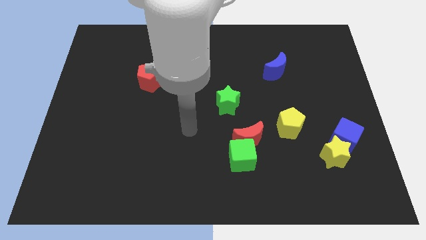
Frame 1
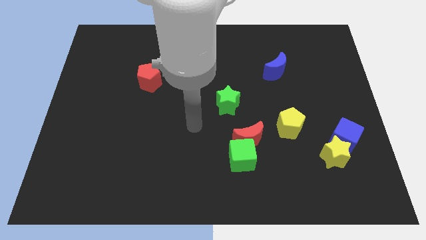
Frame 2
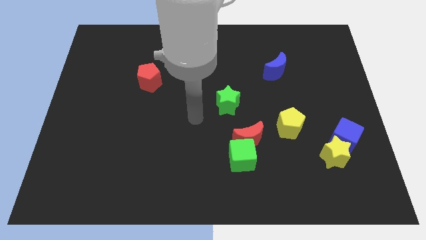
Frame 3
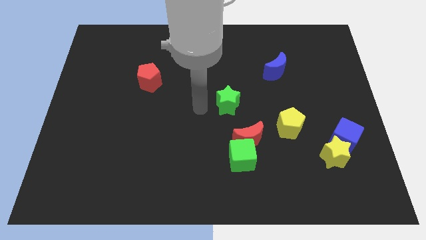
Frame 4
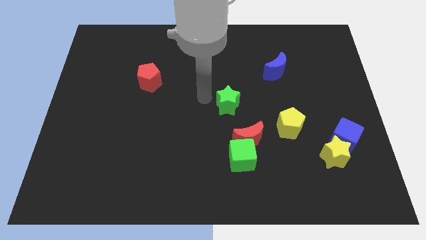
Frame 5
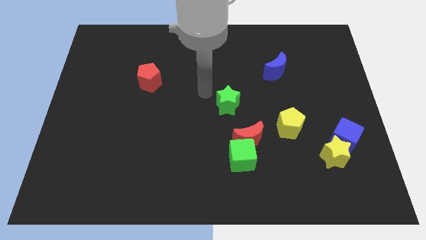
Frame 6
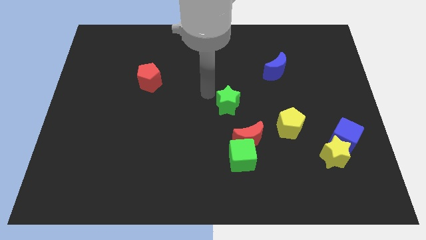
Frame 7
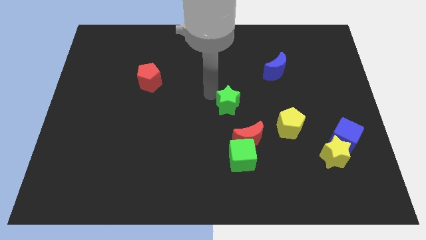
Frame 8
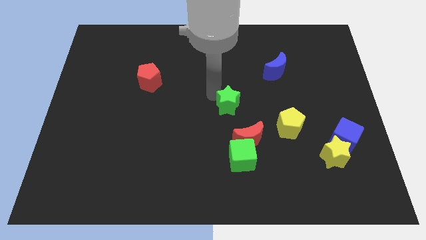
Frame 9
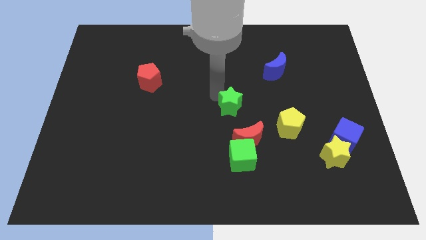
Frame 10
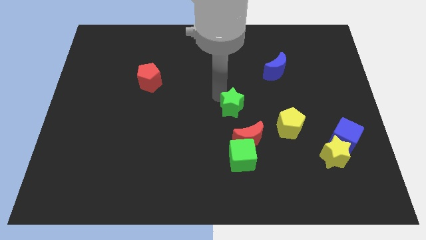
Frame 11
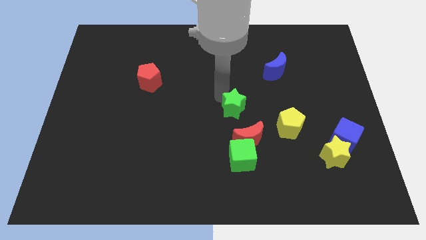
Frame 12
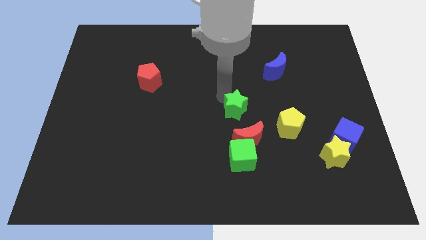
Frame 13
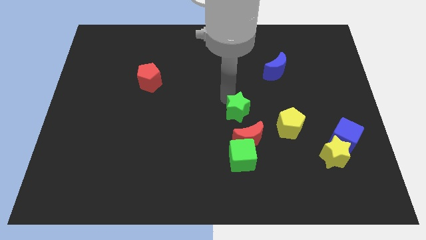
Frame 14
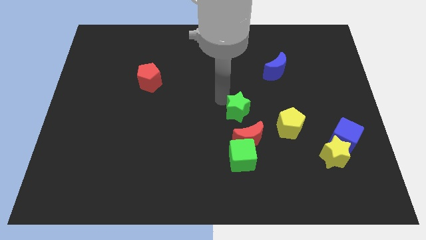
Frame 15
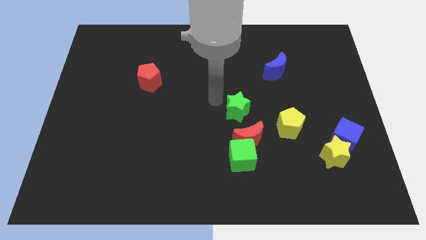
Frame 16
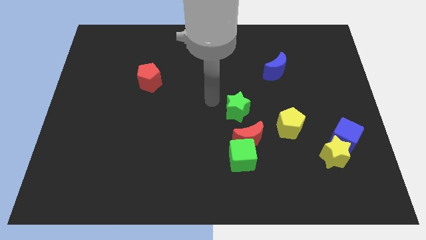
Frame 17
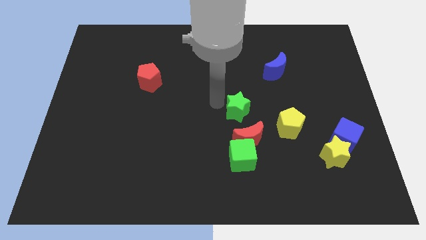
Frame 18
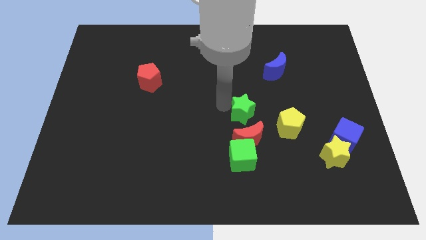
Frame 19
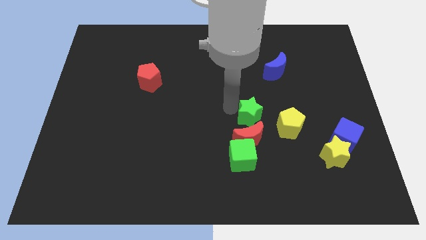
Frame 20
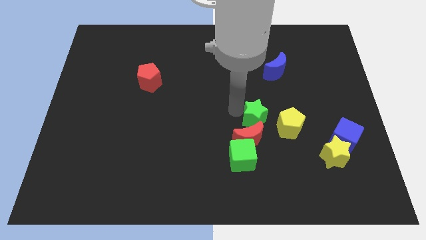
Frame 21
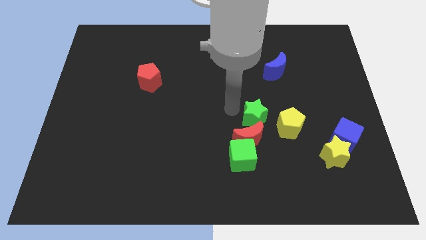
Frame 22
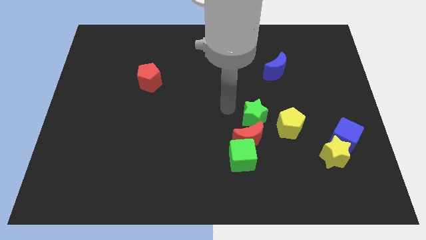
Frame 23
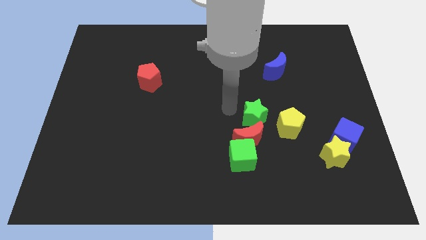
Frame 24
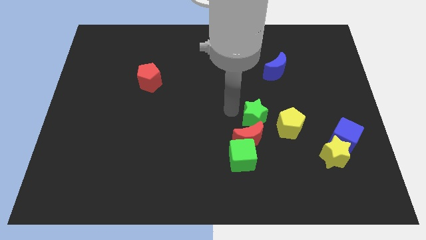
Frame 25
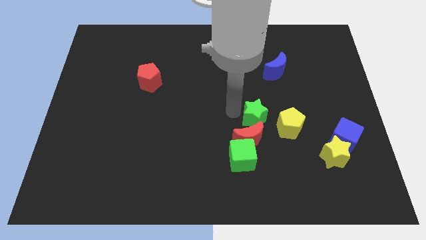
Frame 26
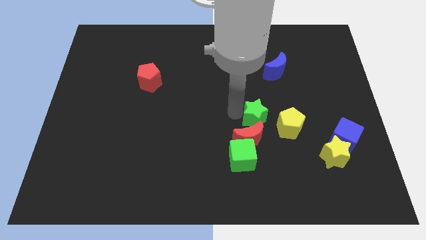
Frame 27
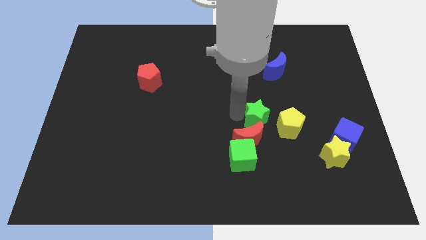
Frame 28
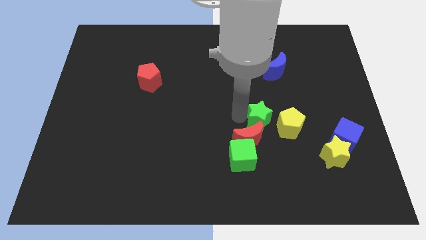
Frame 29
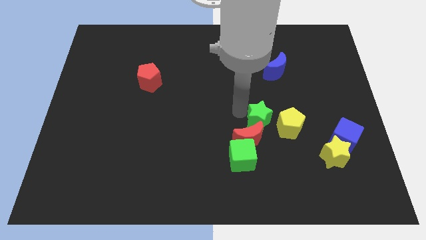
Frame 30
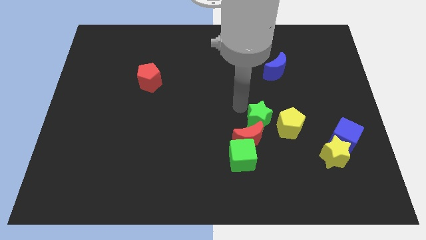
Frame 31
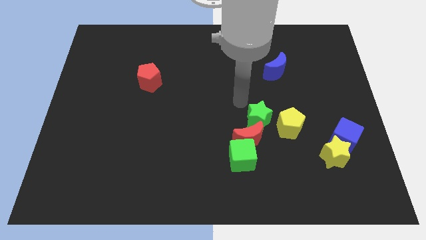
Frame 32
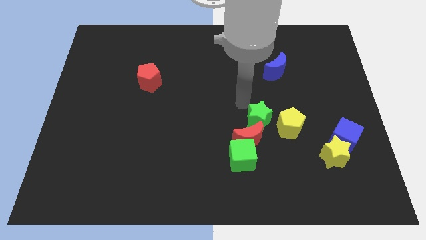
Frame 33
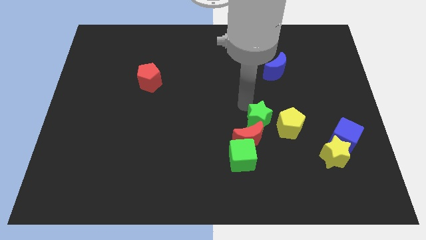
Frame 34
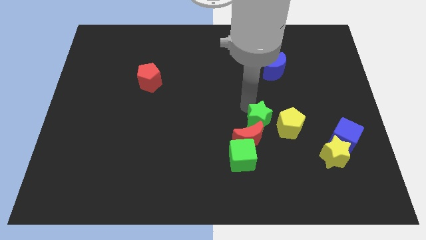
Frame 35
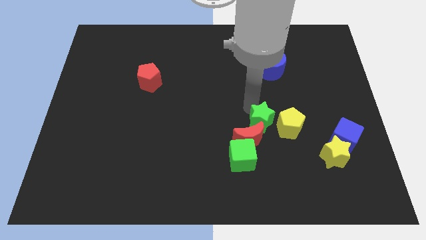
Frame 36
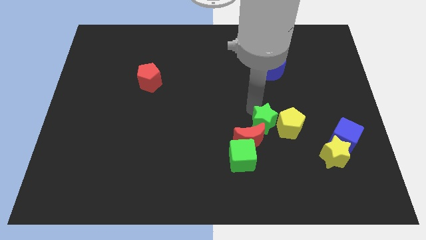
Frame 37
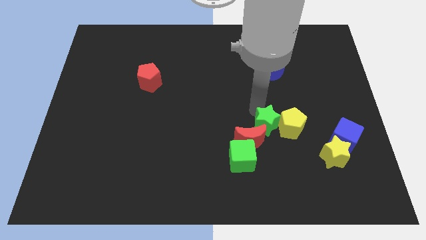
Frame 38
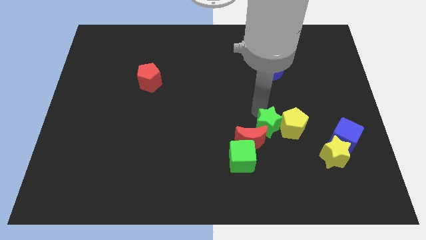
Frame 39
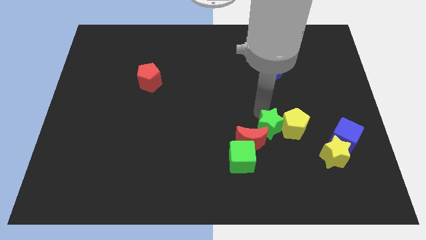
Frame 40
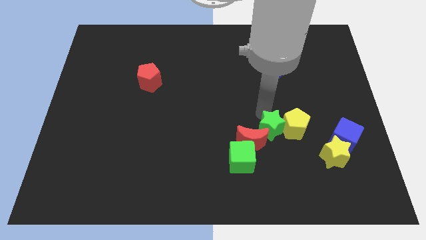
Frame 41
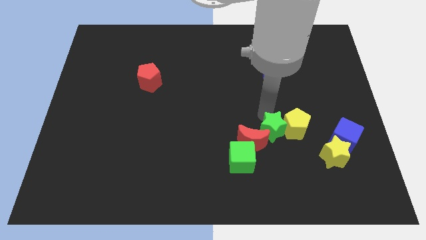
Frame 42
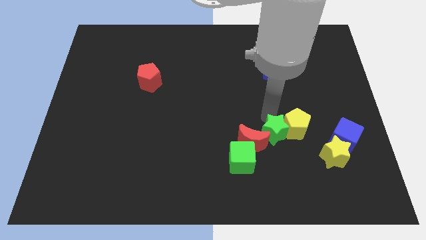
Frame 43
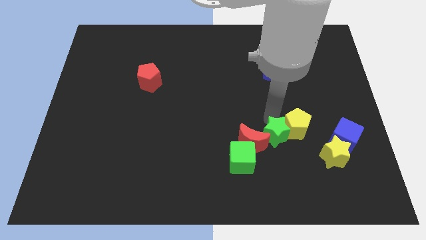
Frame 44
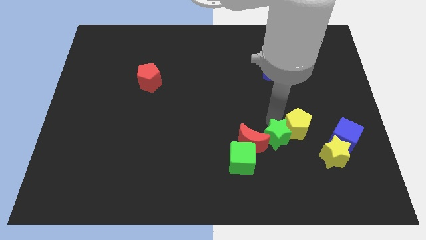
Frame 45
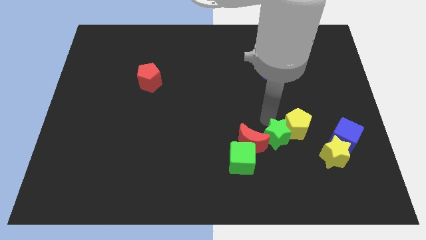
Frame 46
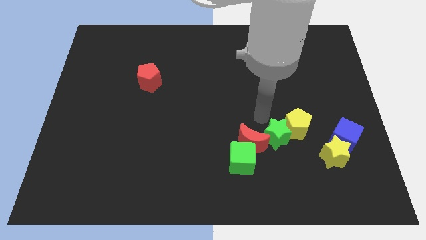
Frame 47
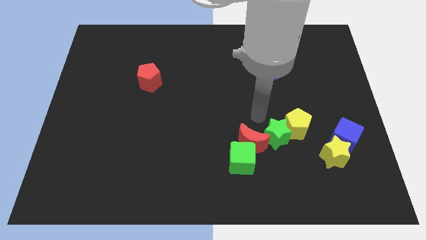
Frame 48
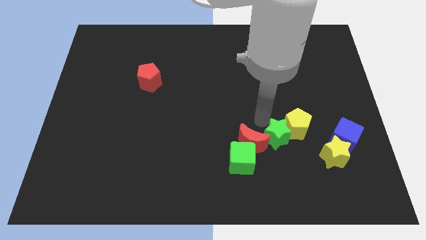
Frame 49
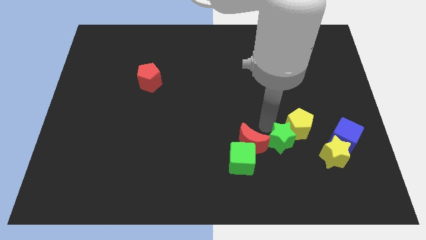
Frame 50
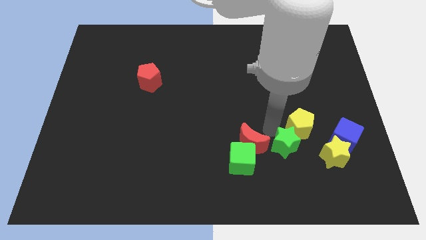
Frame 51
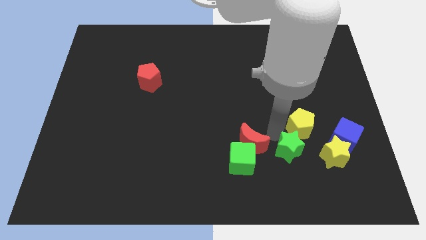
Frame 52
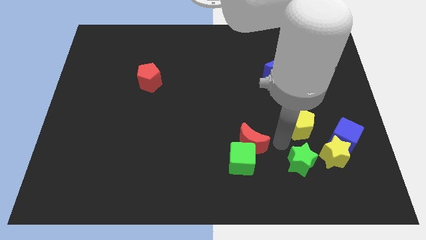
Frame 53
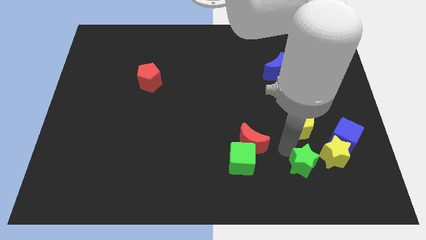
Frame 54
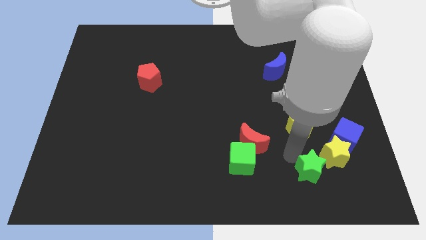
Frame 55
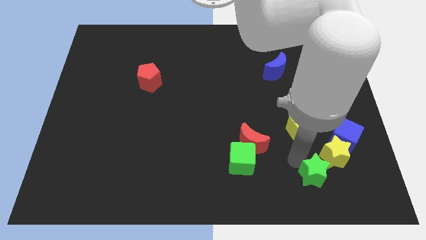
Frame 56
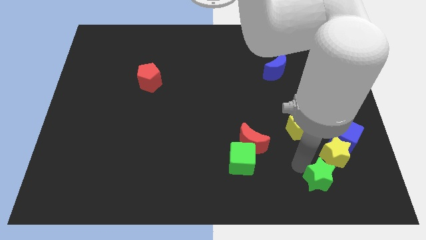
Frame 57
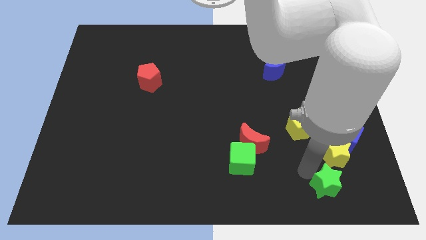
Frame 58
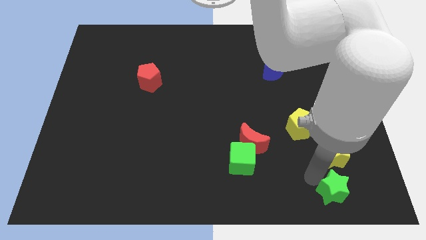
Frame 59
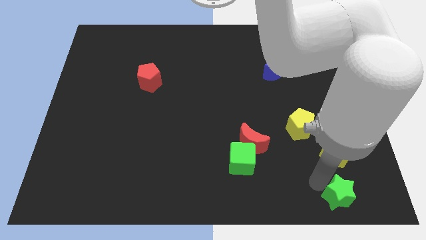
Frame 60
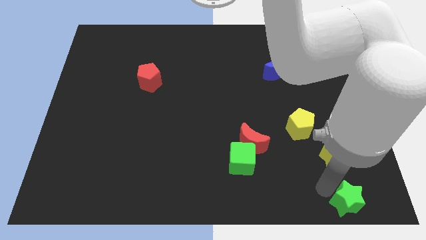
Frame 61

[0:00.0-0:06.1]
push the green star to the lower right corner
